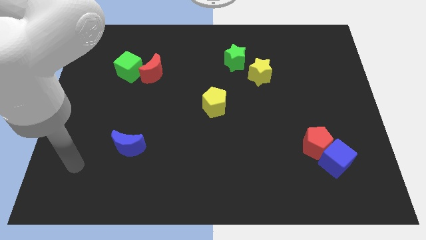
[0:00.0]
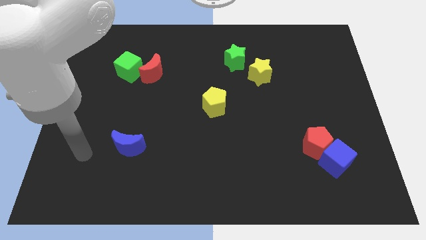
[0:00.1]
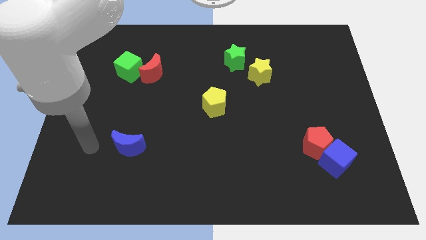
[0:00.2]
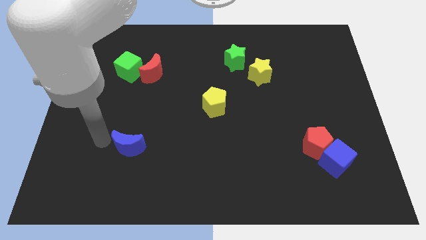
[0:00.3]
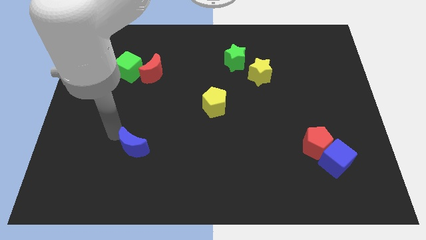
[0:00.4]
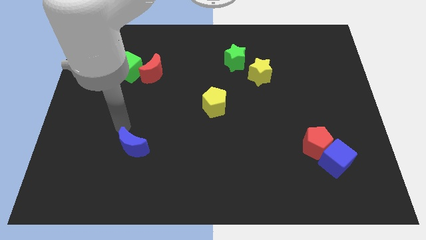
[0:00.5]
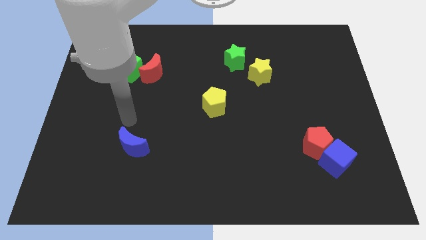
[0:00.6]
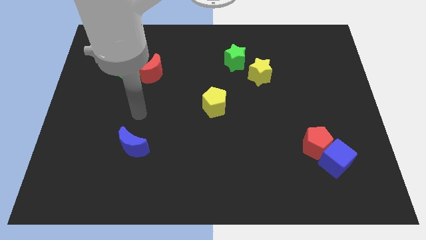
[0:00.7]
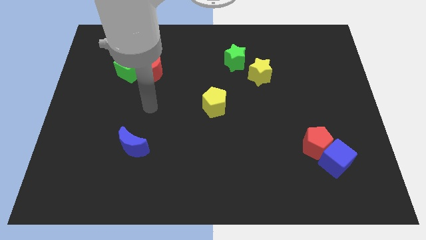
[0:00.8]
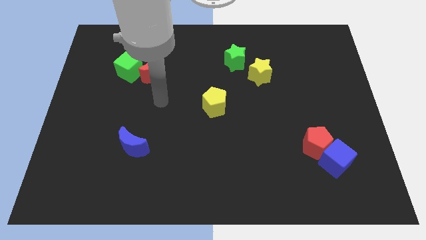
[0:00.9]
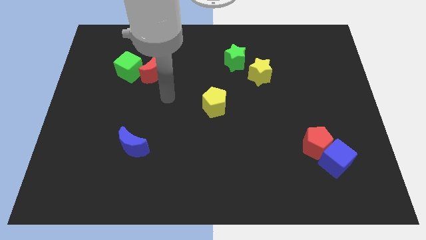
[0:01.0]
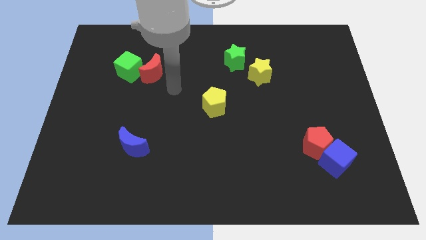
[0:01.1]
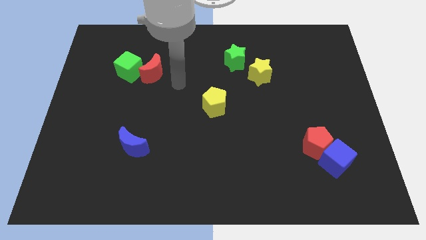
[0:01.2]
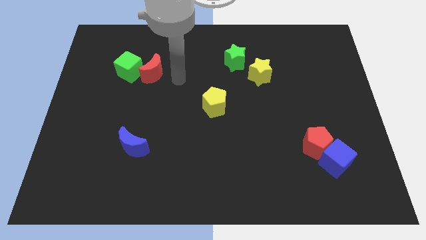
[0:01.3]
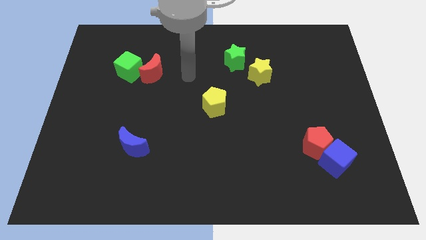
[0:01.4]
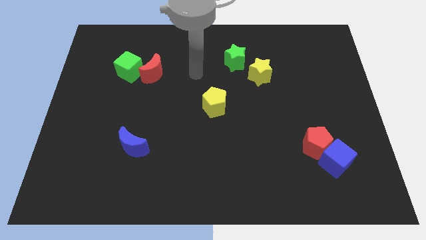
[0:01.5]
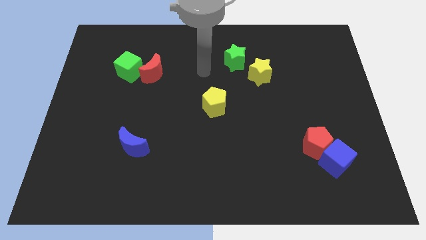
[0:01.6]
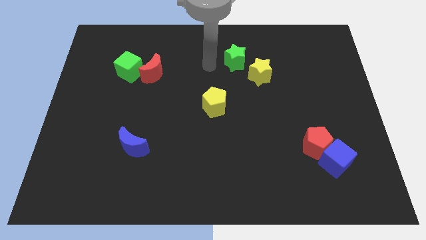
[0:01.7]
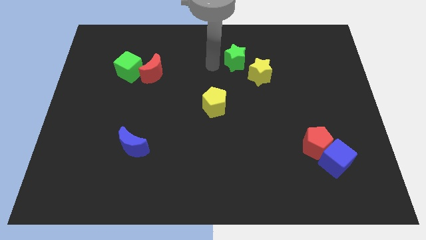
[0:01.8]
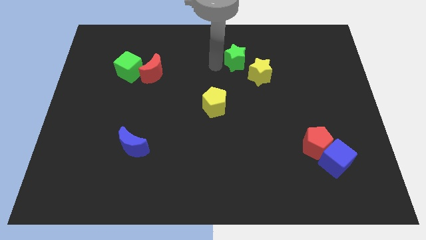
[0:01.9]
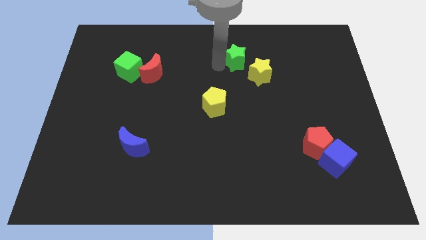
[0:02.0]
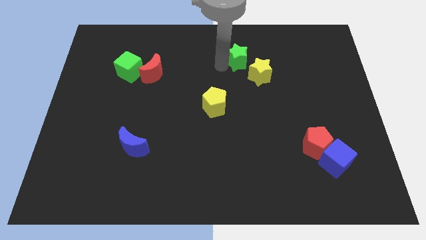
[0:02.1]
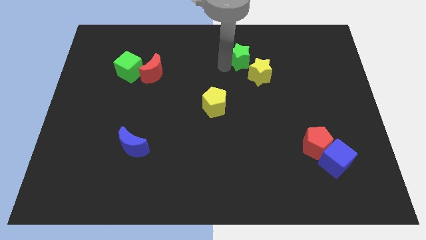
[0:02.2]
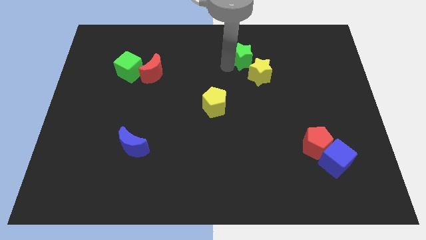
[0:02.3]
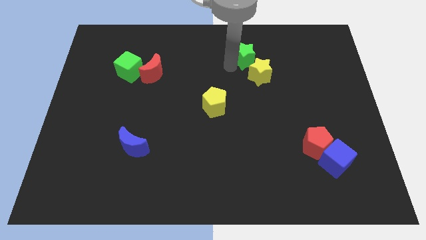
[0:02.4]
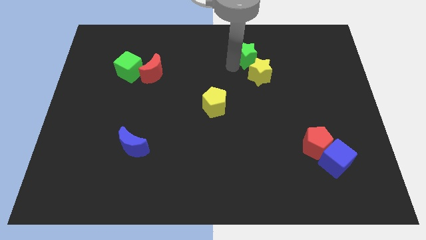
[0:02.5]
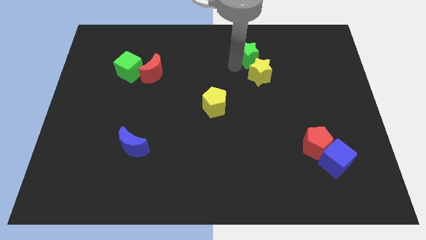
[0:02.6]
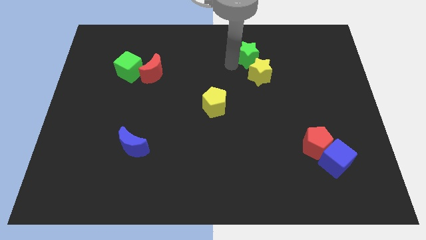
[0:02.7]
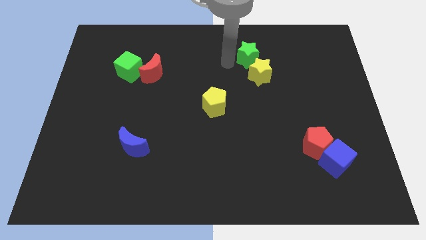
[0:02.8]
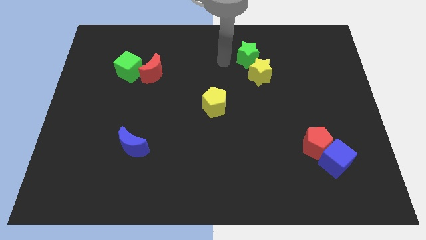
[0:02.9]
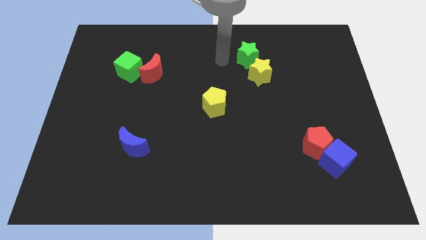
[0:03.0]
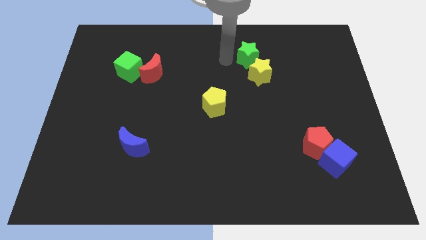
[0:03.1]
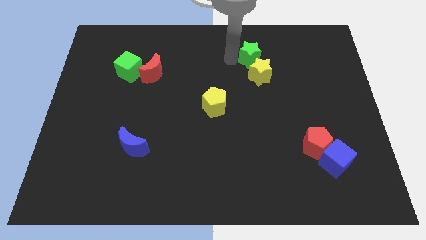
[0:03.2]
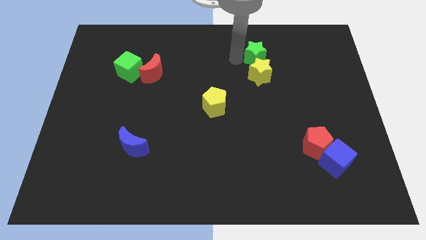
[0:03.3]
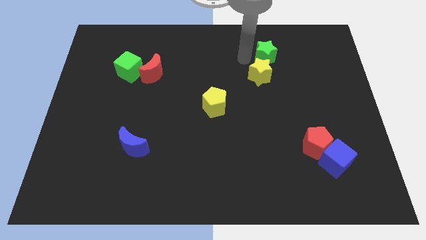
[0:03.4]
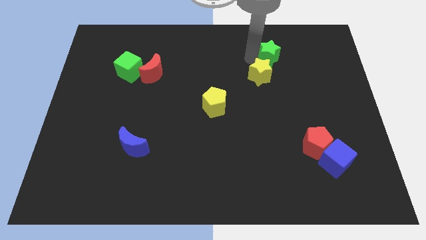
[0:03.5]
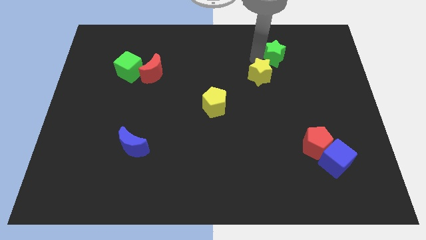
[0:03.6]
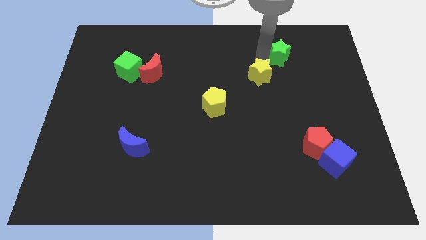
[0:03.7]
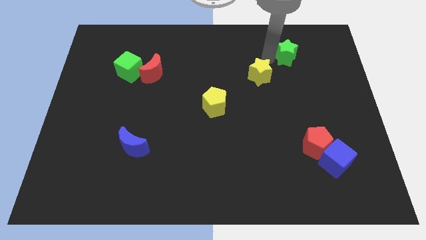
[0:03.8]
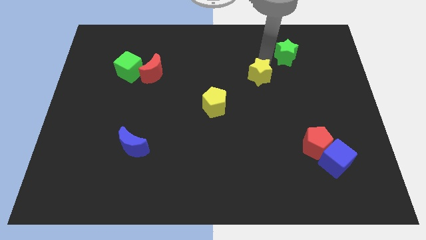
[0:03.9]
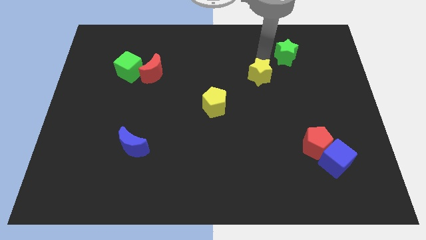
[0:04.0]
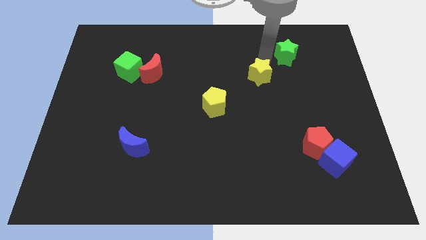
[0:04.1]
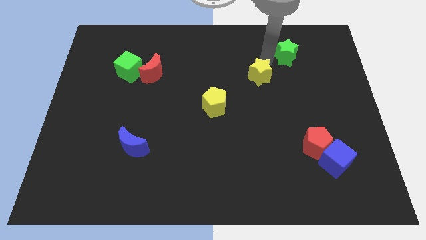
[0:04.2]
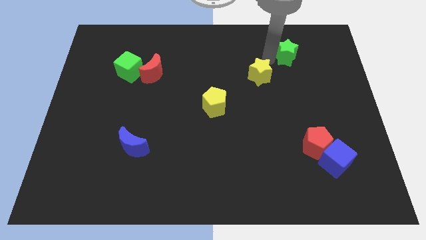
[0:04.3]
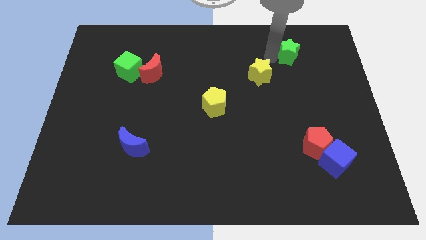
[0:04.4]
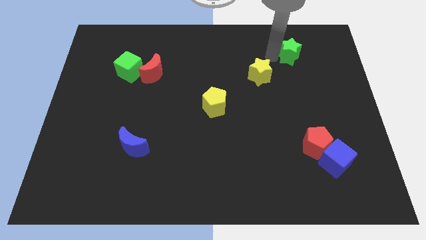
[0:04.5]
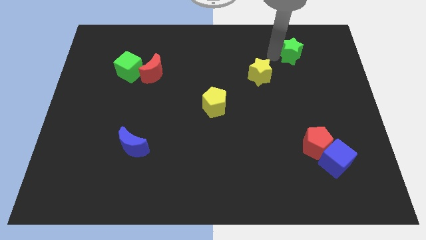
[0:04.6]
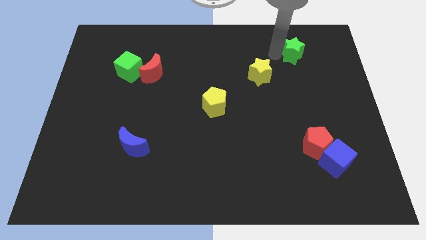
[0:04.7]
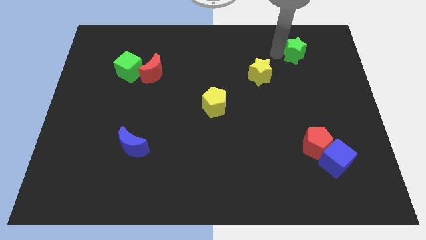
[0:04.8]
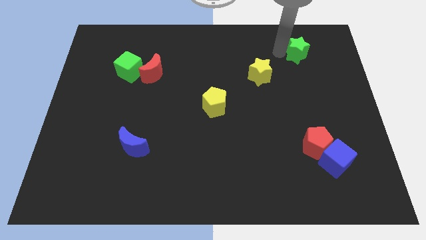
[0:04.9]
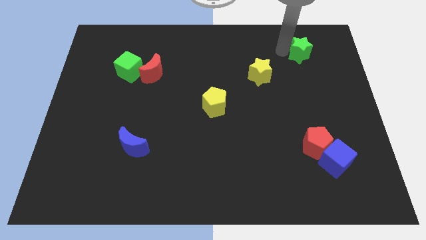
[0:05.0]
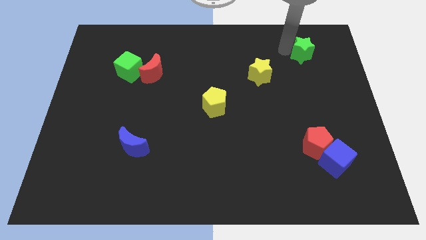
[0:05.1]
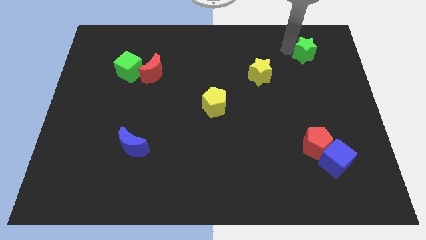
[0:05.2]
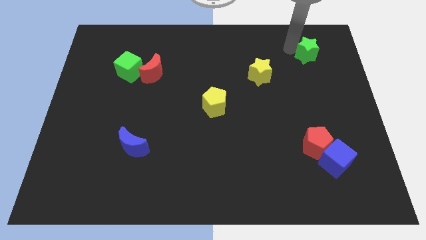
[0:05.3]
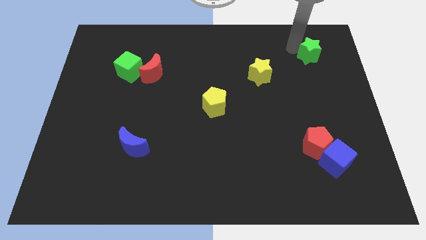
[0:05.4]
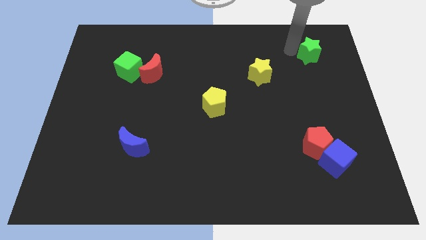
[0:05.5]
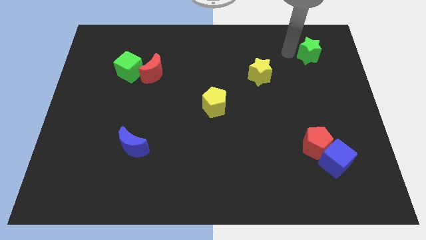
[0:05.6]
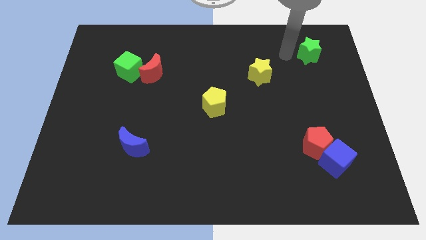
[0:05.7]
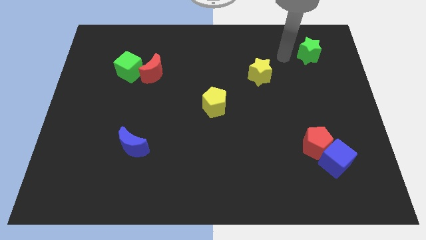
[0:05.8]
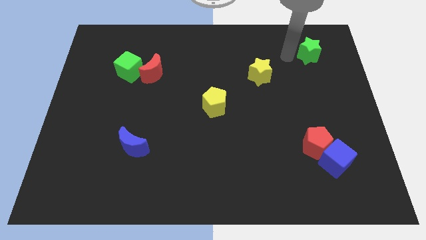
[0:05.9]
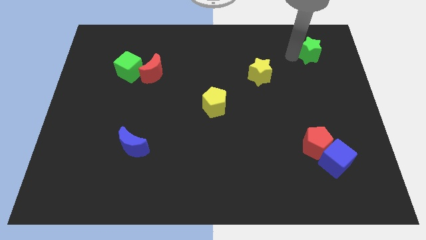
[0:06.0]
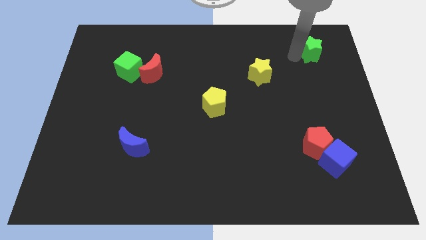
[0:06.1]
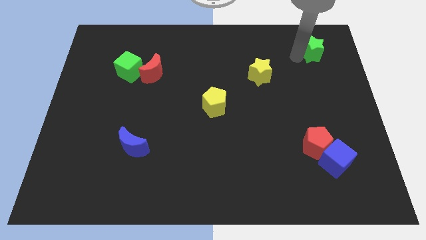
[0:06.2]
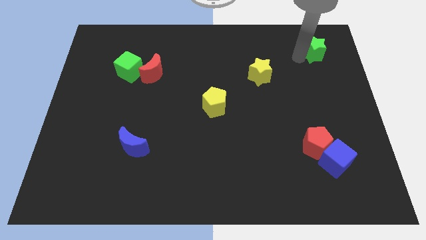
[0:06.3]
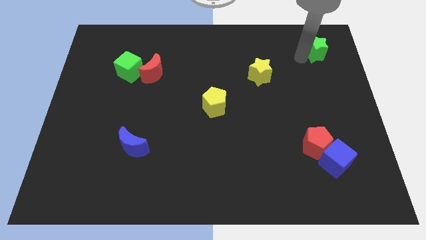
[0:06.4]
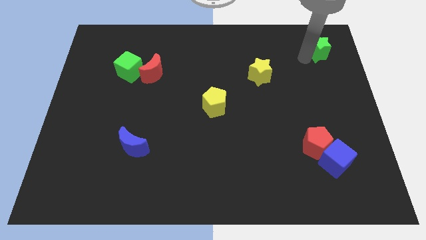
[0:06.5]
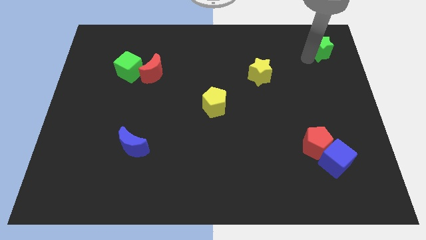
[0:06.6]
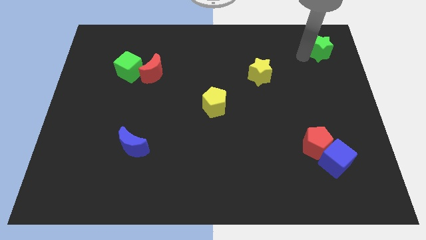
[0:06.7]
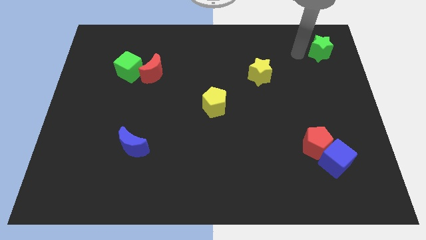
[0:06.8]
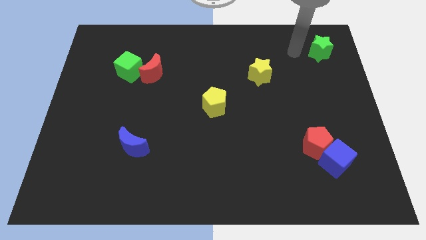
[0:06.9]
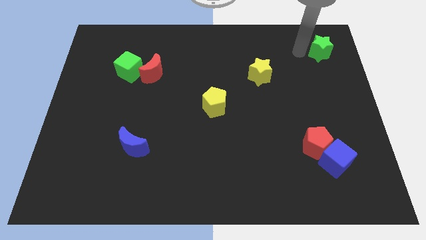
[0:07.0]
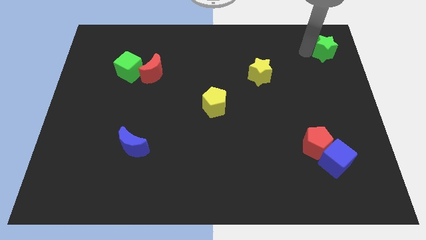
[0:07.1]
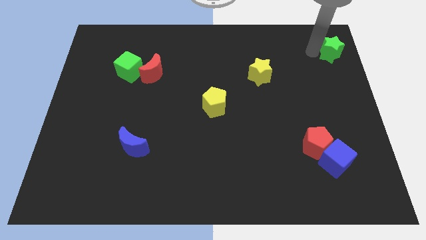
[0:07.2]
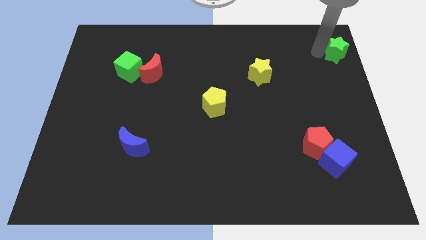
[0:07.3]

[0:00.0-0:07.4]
put the green star to the upper right corner

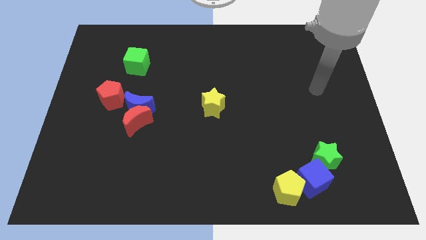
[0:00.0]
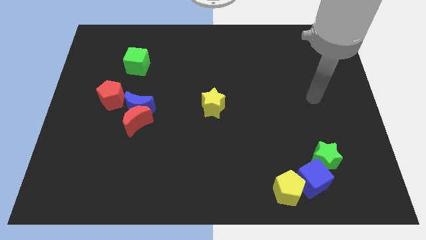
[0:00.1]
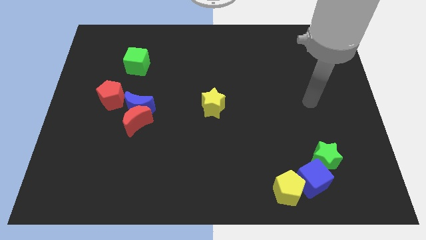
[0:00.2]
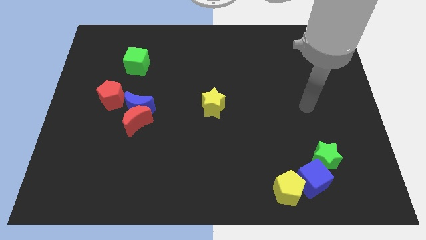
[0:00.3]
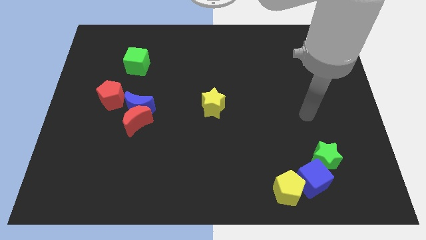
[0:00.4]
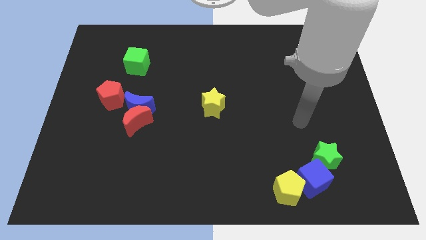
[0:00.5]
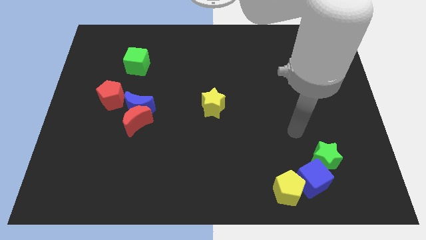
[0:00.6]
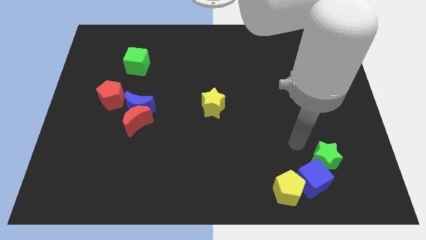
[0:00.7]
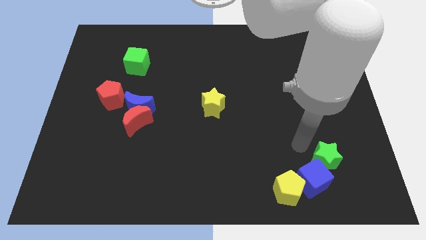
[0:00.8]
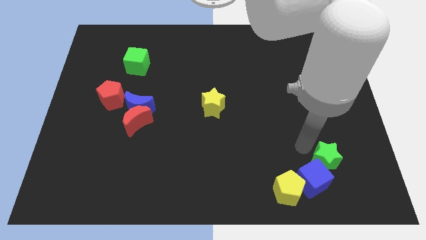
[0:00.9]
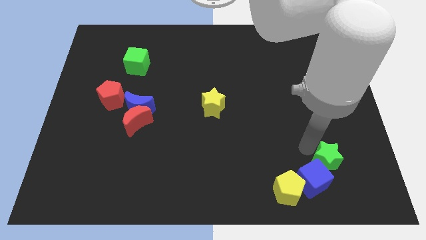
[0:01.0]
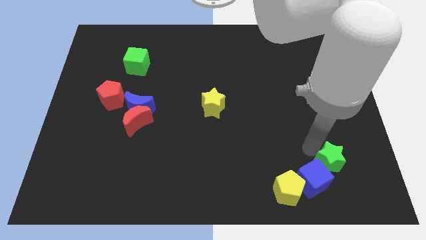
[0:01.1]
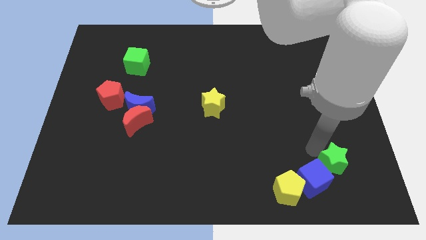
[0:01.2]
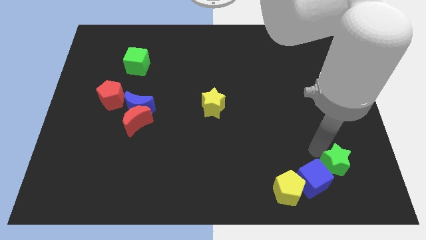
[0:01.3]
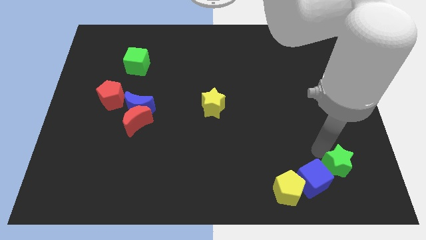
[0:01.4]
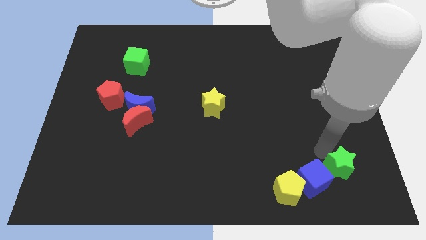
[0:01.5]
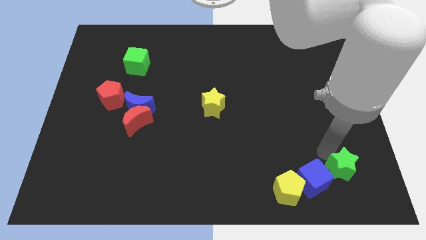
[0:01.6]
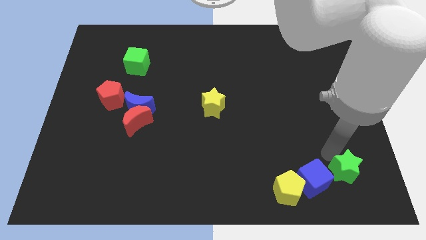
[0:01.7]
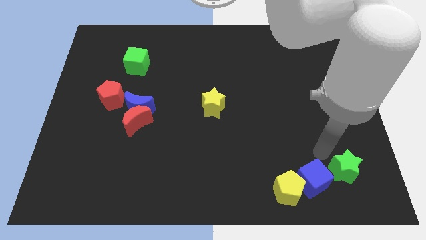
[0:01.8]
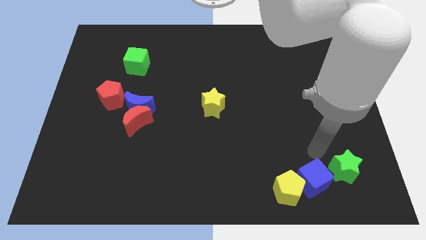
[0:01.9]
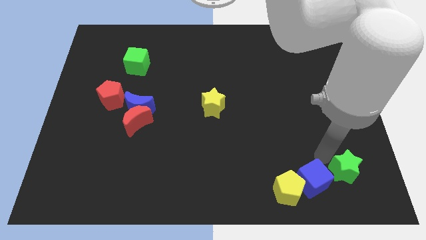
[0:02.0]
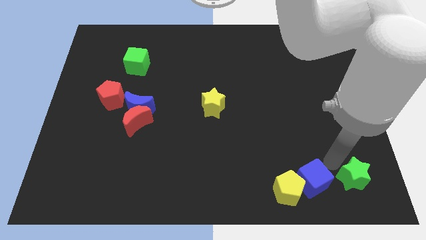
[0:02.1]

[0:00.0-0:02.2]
push the green star to the bottom right
